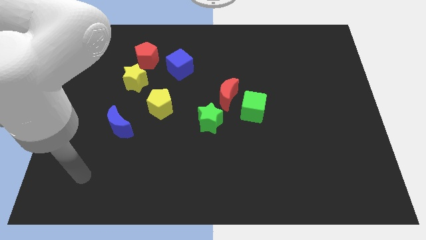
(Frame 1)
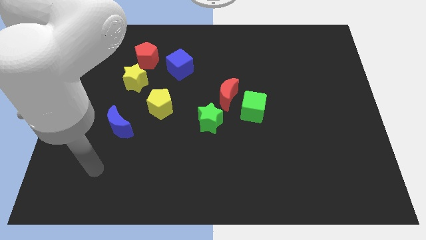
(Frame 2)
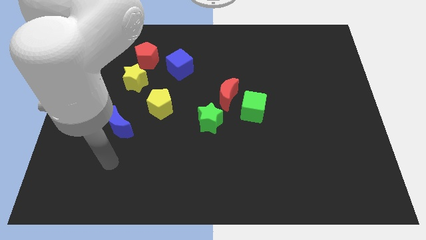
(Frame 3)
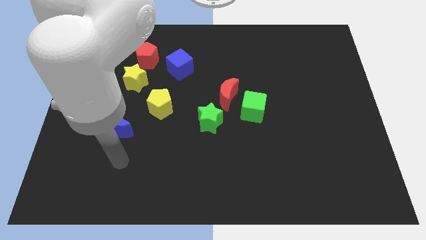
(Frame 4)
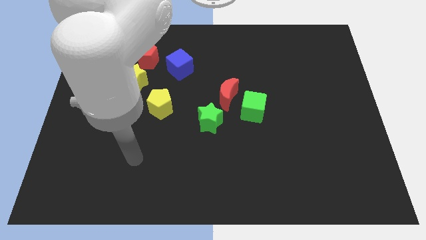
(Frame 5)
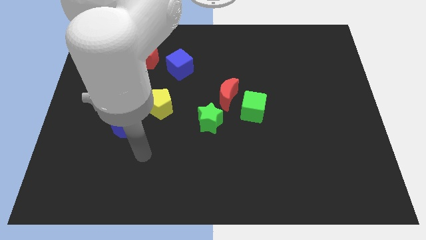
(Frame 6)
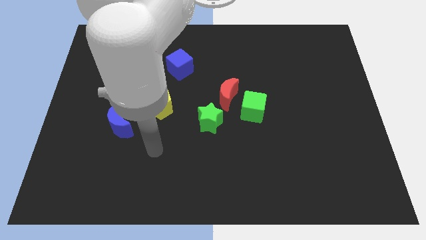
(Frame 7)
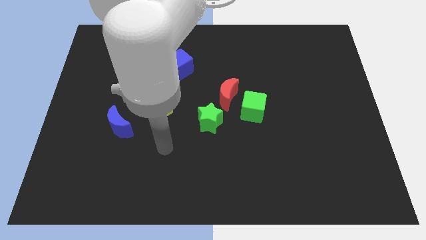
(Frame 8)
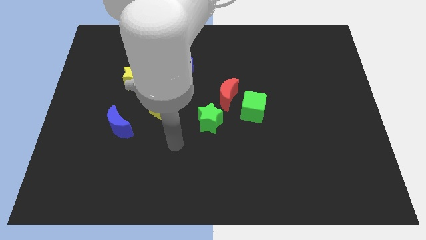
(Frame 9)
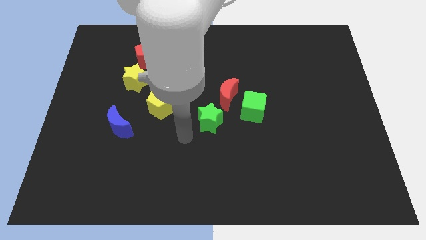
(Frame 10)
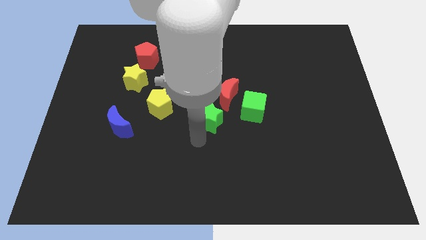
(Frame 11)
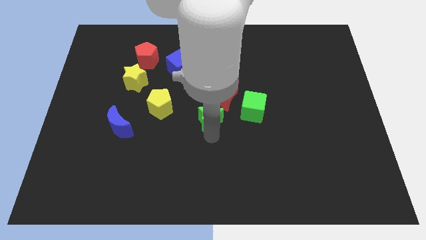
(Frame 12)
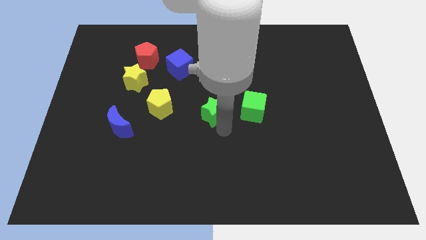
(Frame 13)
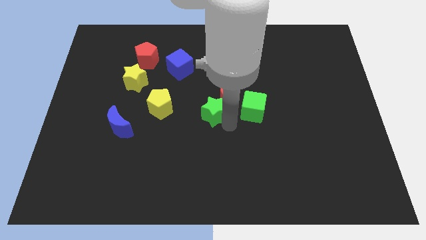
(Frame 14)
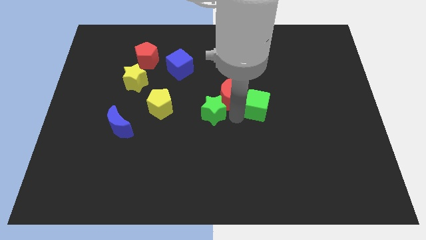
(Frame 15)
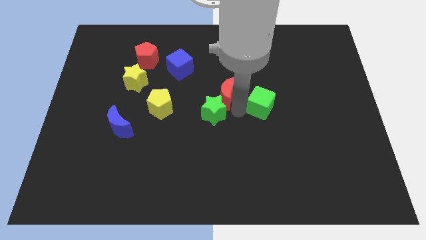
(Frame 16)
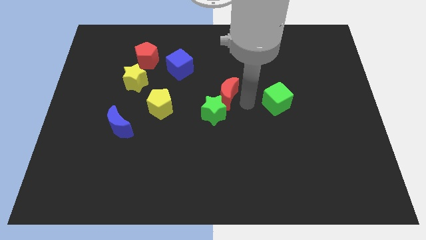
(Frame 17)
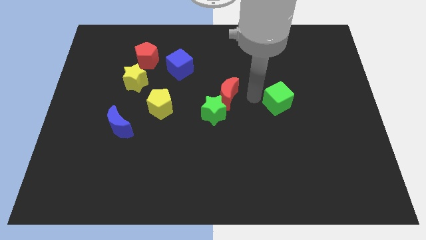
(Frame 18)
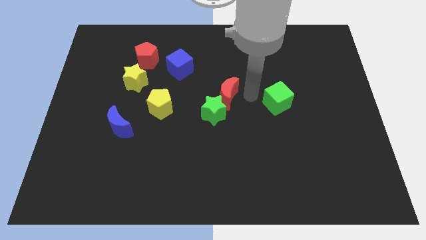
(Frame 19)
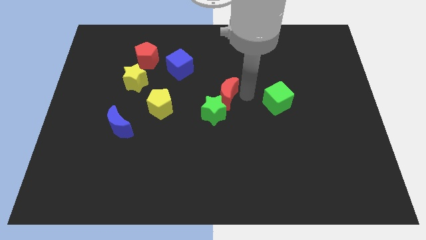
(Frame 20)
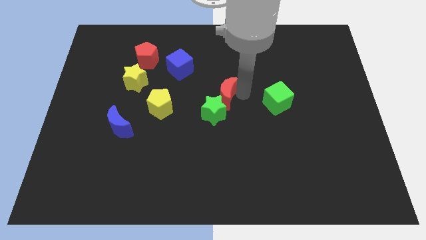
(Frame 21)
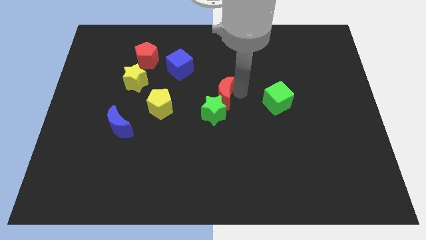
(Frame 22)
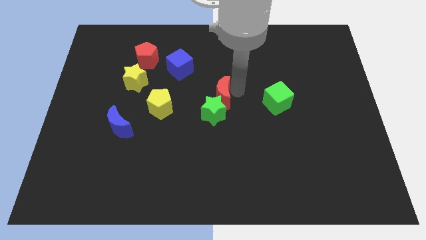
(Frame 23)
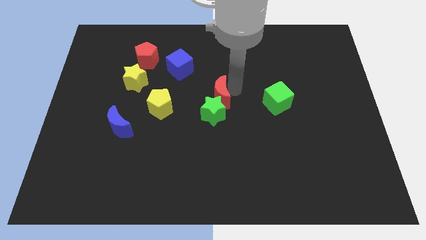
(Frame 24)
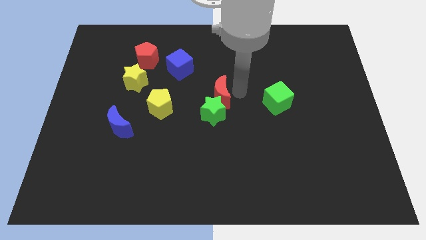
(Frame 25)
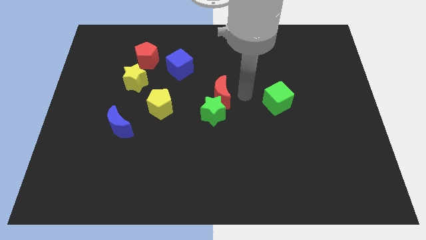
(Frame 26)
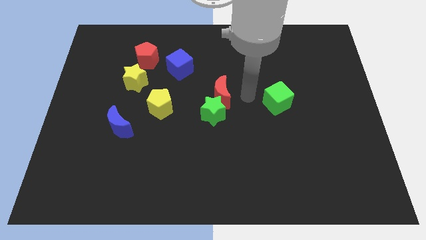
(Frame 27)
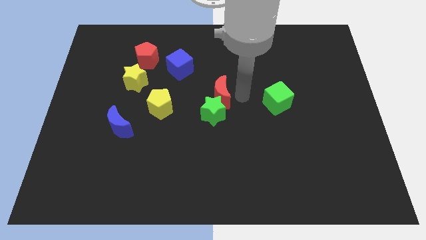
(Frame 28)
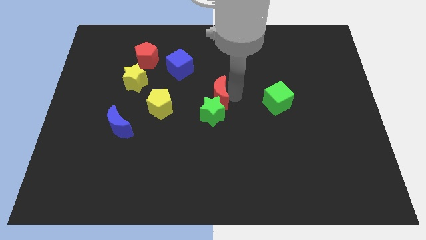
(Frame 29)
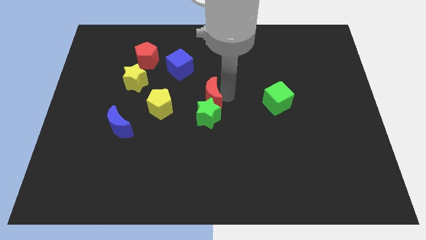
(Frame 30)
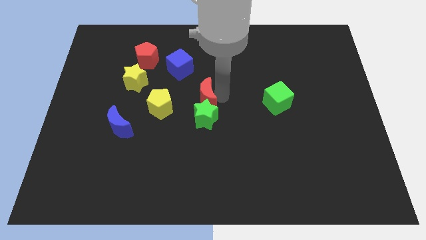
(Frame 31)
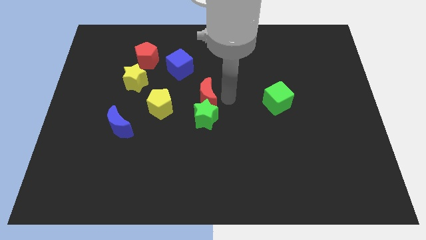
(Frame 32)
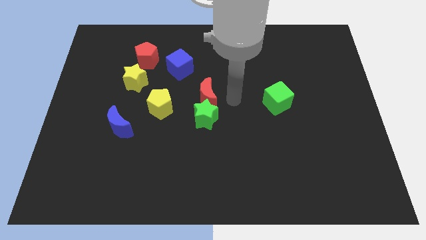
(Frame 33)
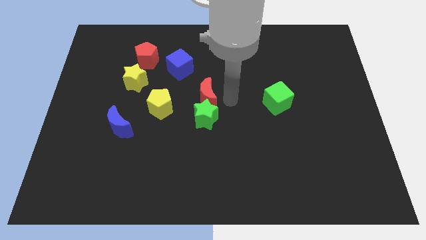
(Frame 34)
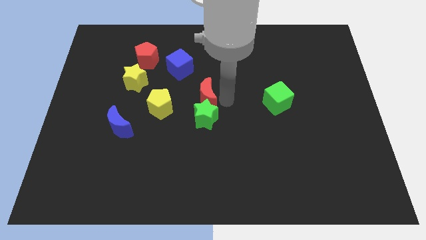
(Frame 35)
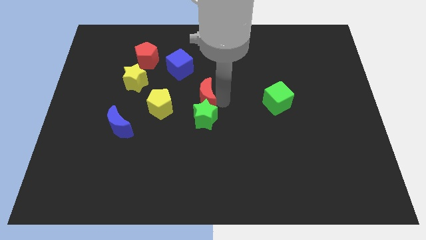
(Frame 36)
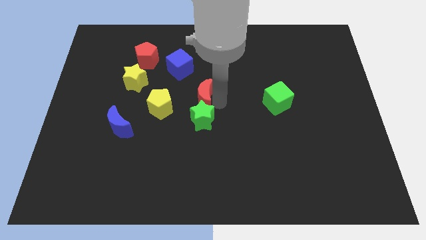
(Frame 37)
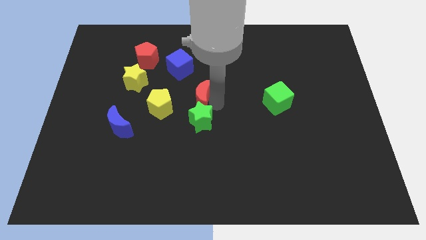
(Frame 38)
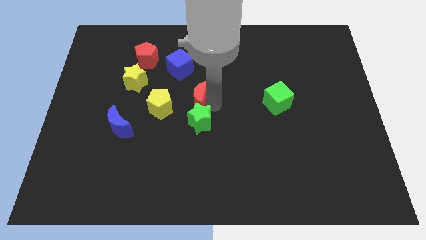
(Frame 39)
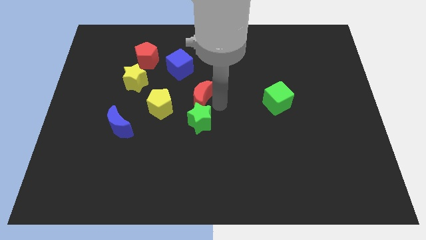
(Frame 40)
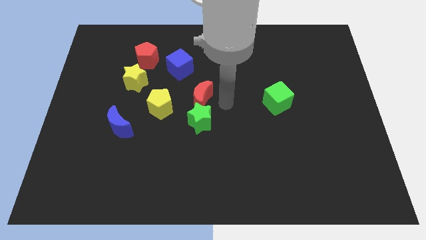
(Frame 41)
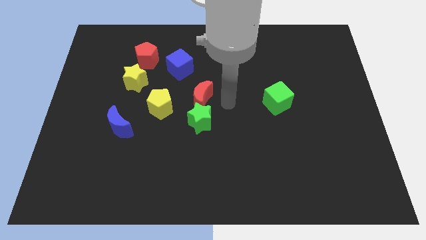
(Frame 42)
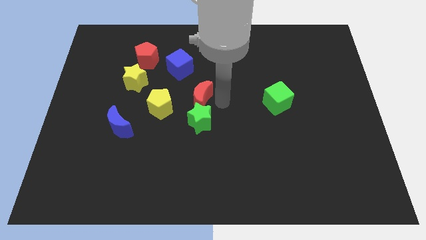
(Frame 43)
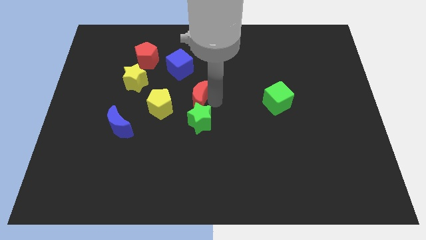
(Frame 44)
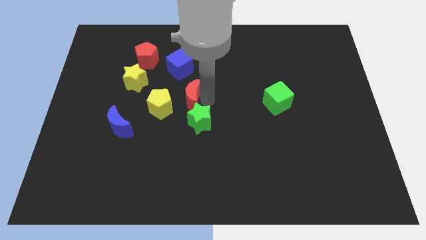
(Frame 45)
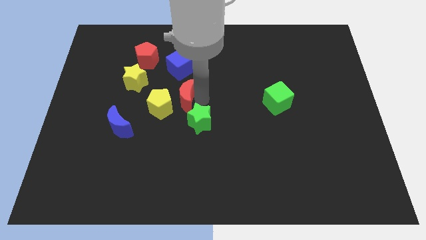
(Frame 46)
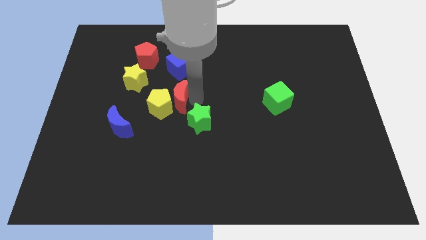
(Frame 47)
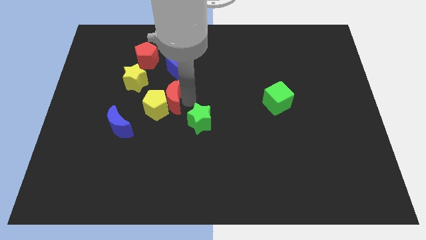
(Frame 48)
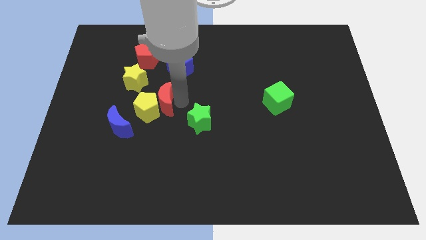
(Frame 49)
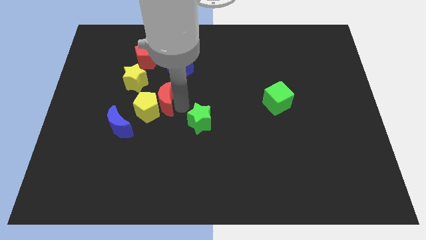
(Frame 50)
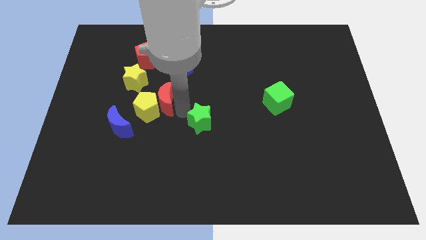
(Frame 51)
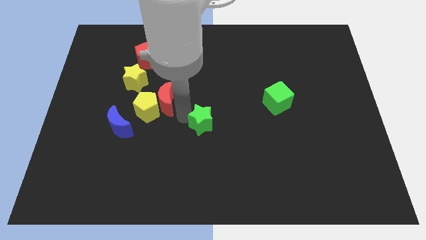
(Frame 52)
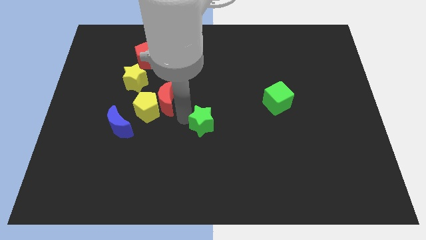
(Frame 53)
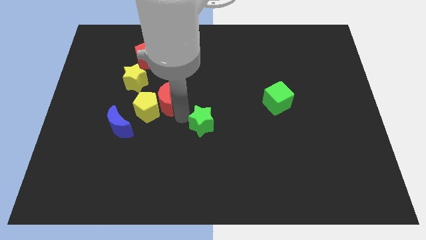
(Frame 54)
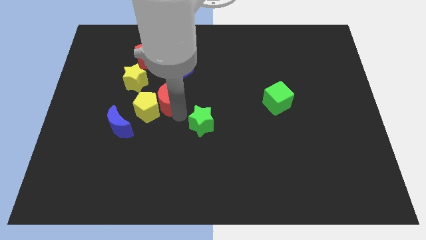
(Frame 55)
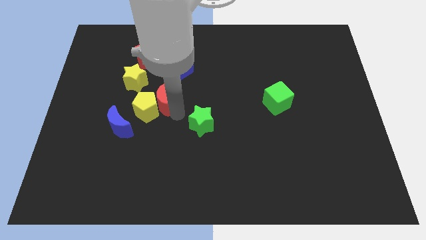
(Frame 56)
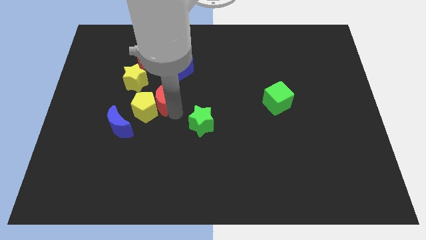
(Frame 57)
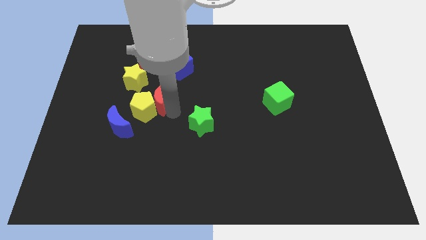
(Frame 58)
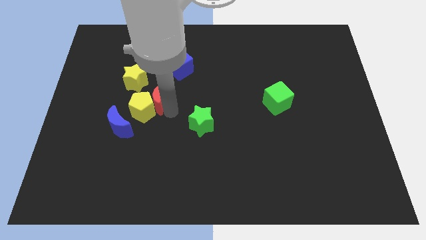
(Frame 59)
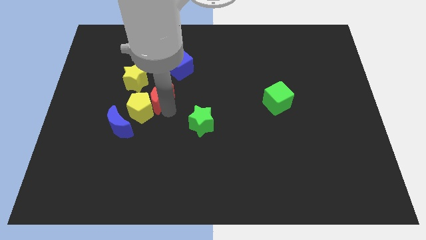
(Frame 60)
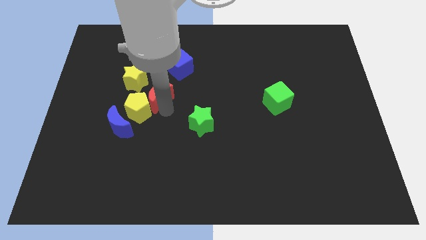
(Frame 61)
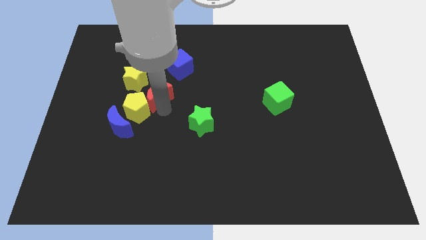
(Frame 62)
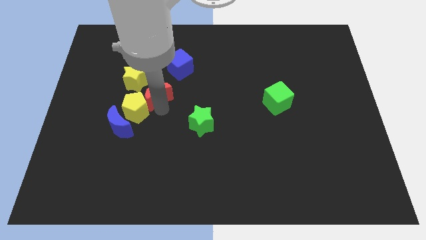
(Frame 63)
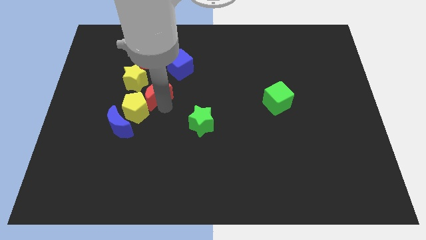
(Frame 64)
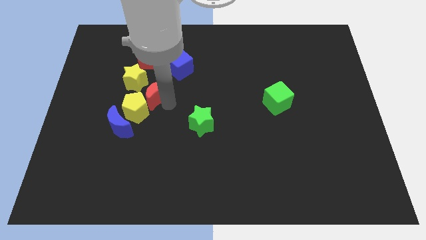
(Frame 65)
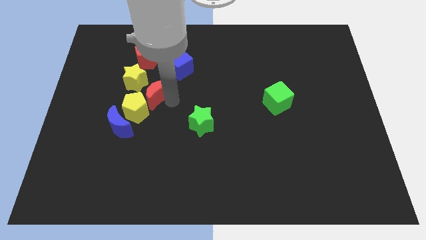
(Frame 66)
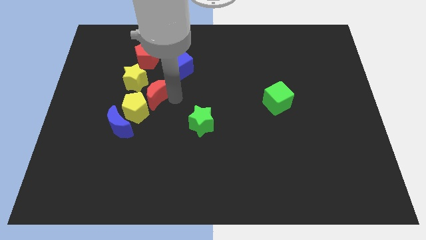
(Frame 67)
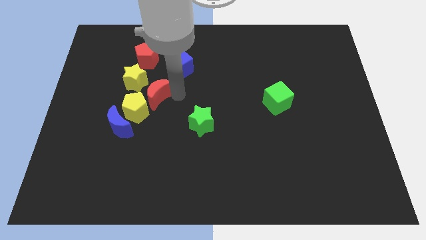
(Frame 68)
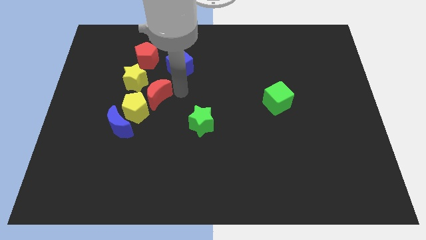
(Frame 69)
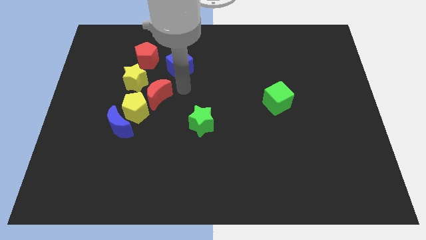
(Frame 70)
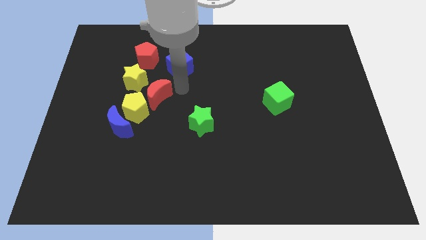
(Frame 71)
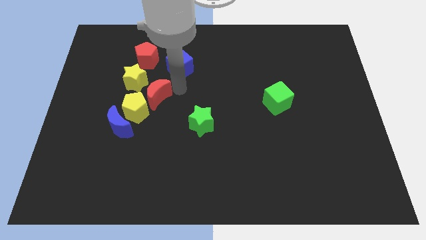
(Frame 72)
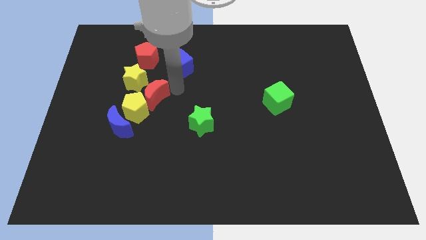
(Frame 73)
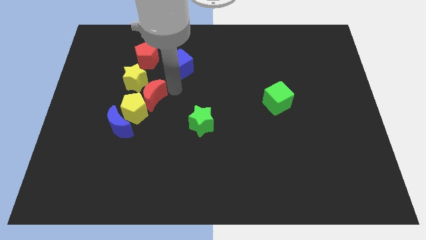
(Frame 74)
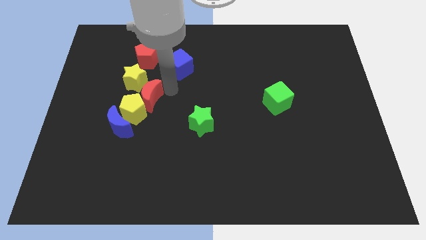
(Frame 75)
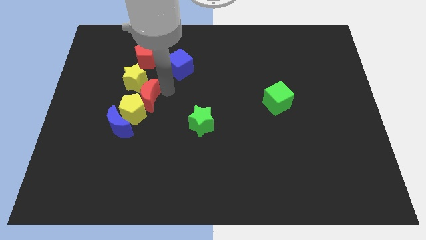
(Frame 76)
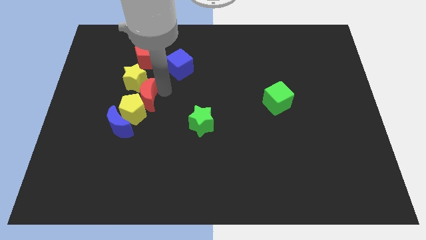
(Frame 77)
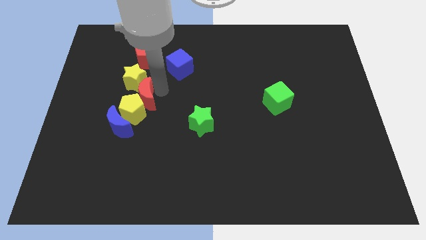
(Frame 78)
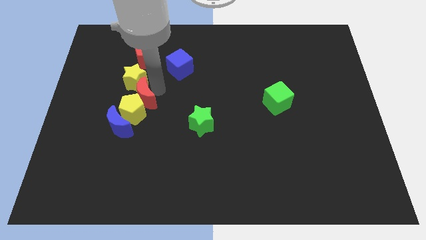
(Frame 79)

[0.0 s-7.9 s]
slide the red moon left

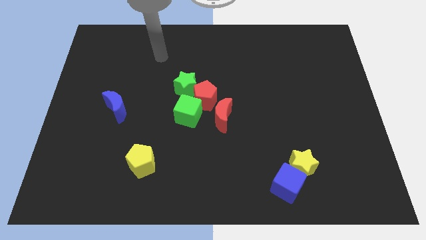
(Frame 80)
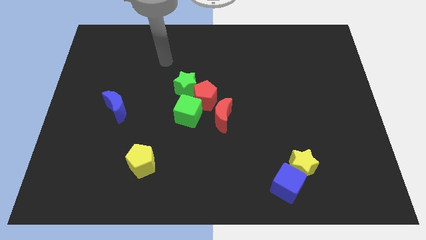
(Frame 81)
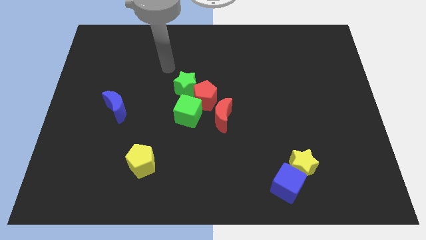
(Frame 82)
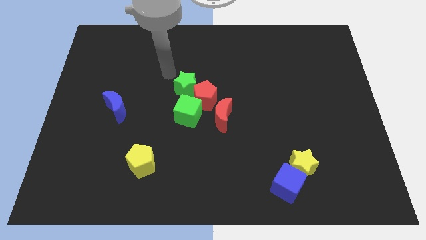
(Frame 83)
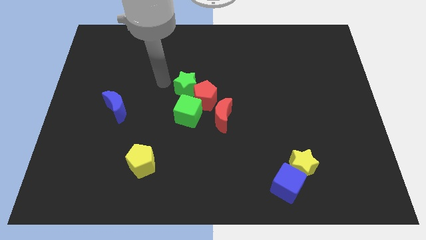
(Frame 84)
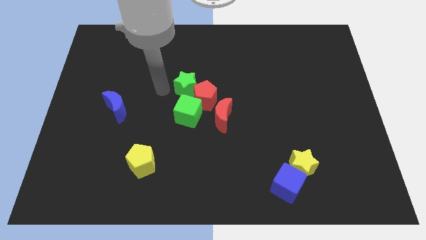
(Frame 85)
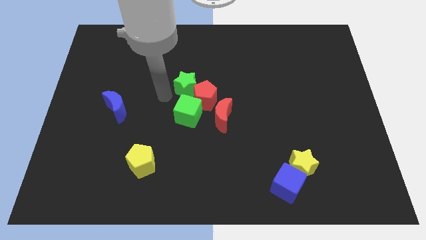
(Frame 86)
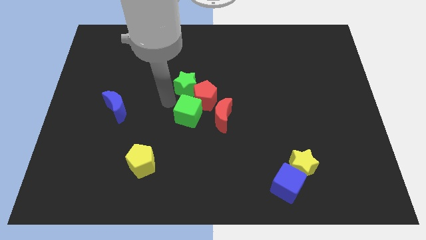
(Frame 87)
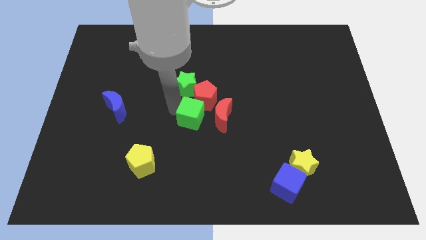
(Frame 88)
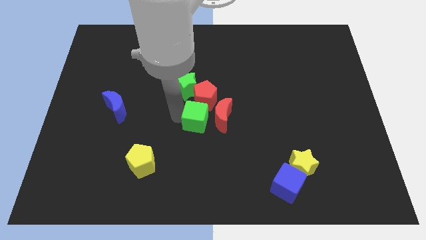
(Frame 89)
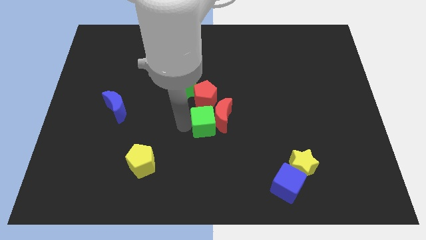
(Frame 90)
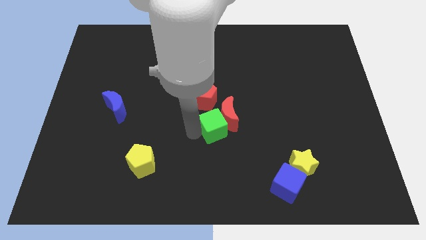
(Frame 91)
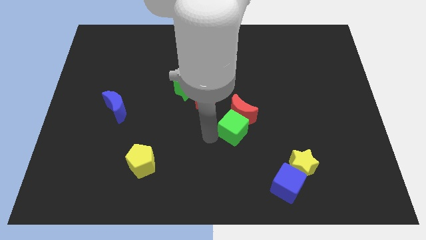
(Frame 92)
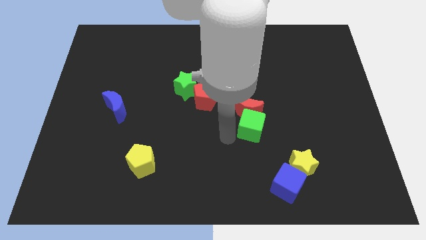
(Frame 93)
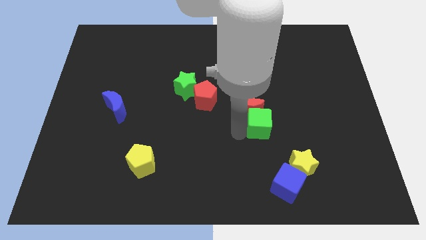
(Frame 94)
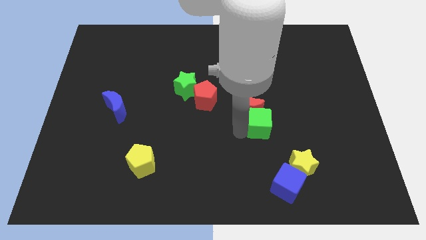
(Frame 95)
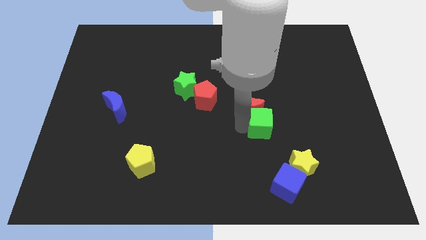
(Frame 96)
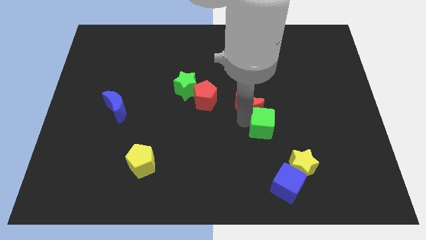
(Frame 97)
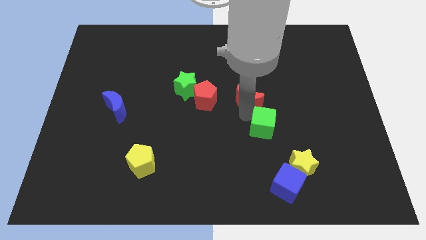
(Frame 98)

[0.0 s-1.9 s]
push the red moon a bit up and to the right
